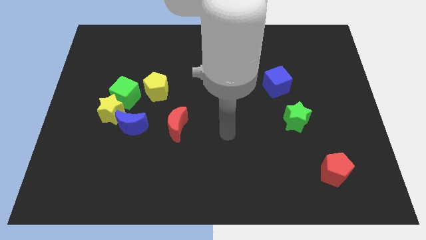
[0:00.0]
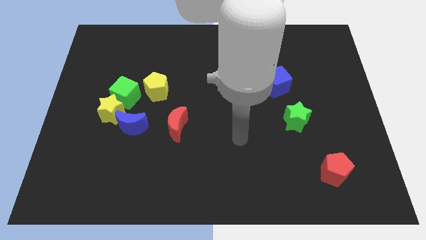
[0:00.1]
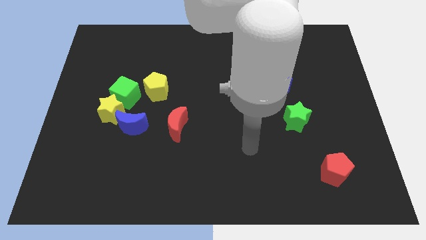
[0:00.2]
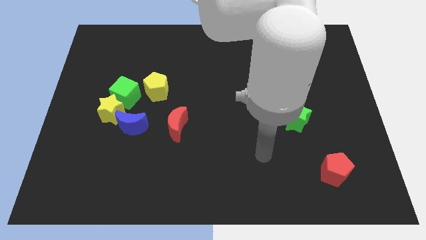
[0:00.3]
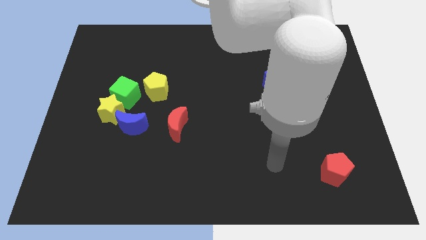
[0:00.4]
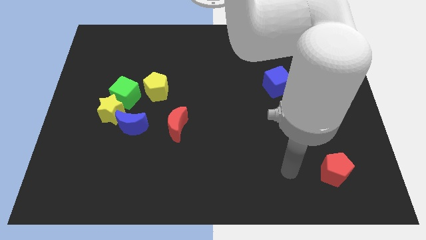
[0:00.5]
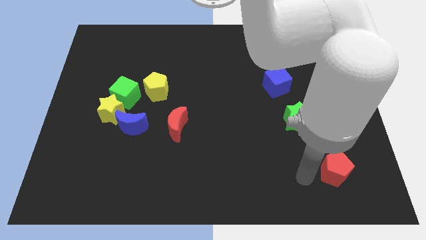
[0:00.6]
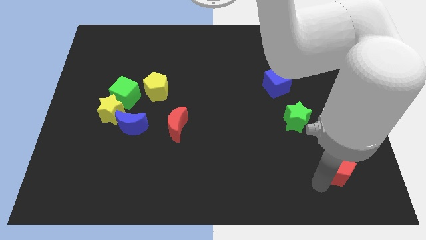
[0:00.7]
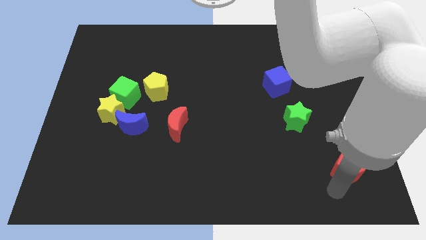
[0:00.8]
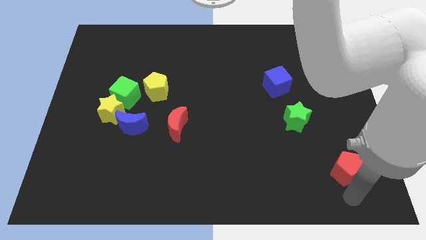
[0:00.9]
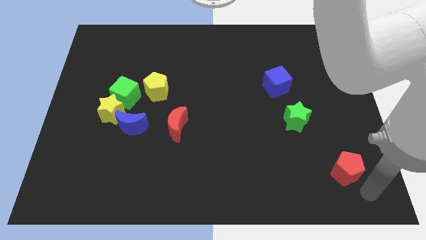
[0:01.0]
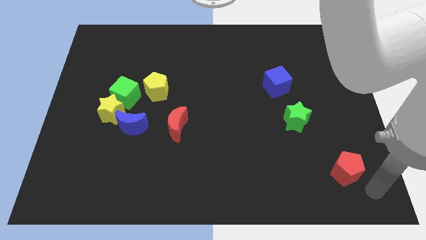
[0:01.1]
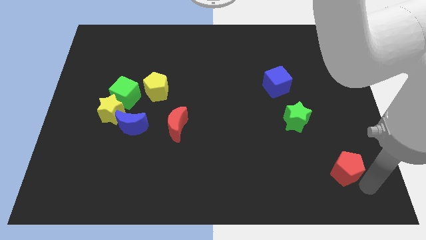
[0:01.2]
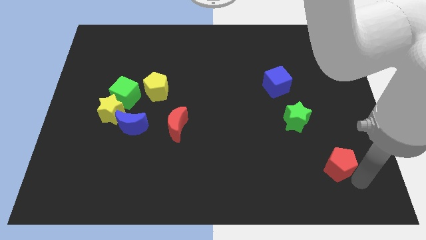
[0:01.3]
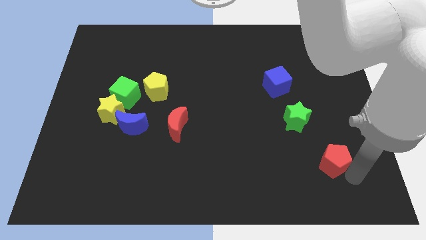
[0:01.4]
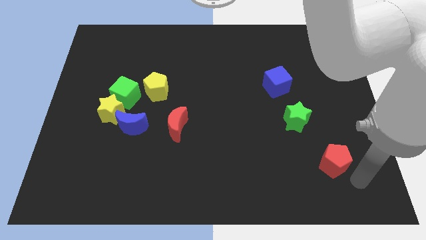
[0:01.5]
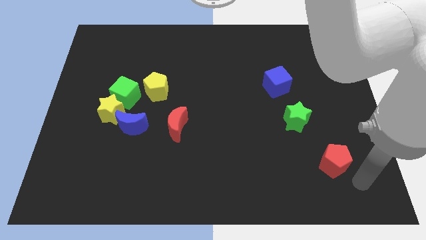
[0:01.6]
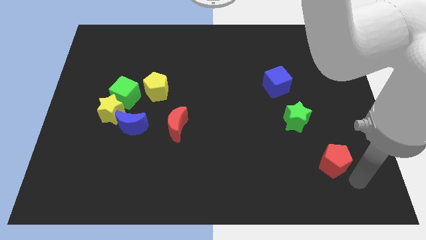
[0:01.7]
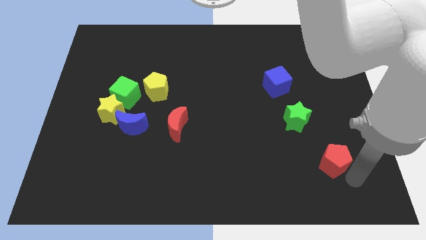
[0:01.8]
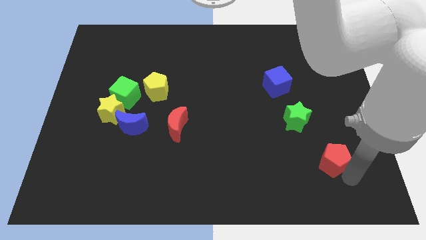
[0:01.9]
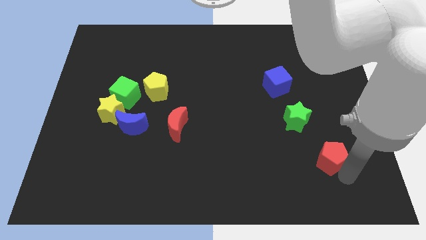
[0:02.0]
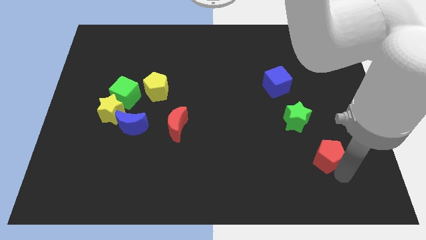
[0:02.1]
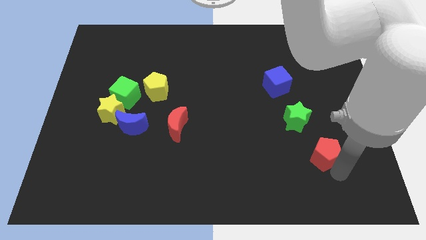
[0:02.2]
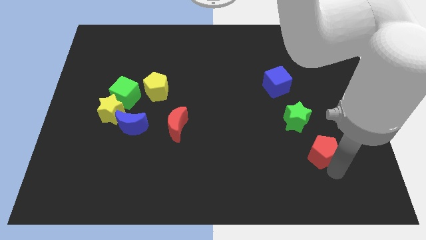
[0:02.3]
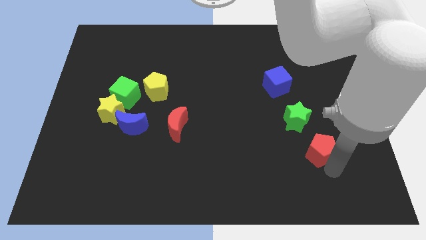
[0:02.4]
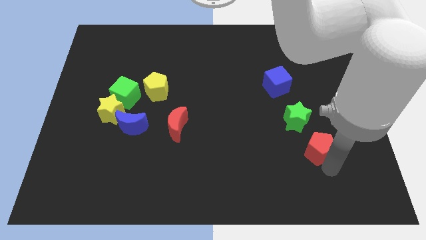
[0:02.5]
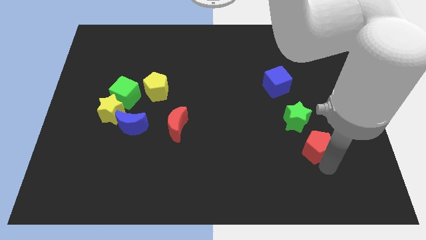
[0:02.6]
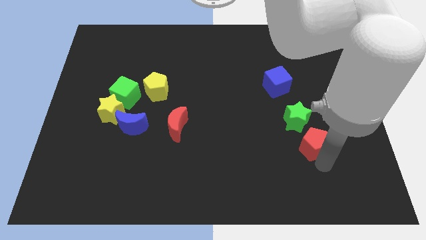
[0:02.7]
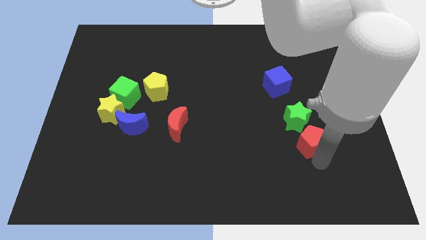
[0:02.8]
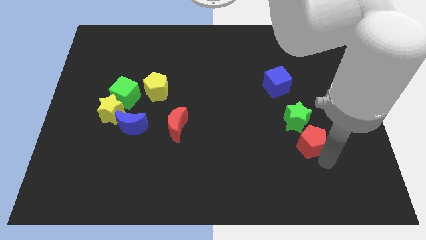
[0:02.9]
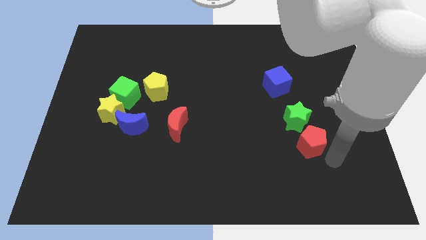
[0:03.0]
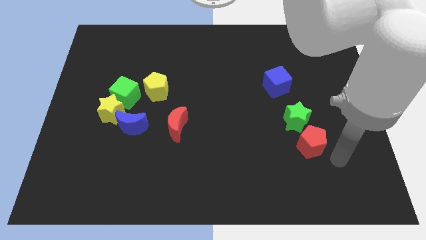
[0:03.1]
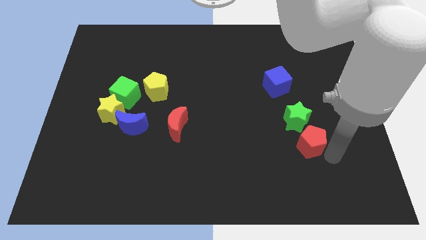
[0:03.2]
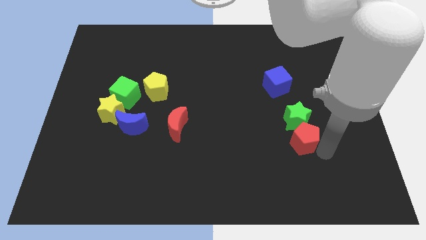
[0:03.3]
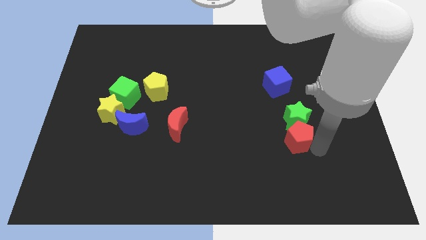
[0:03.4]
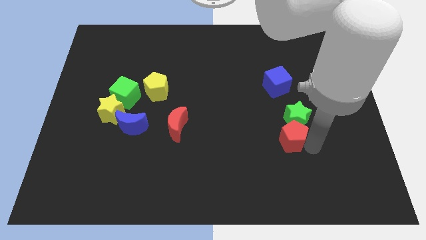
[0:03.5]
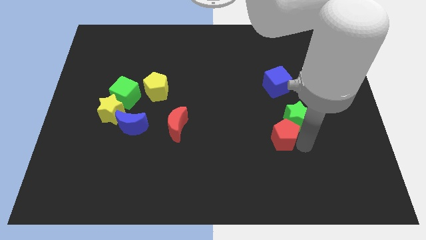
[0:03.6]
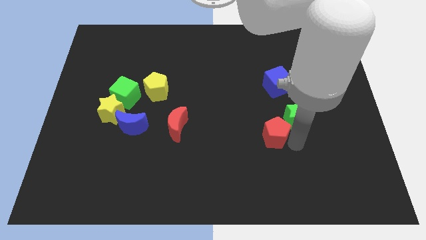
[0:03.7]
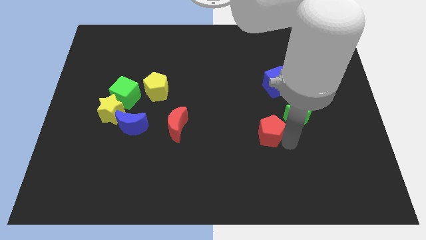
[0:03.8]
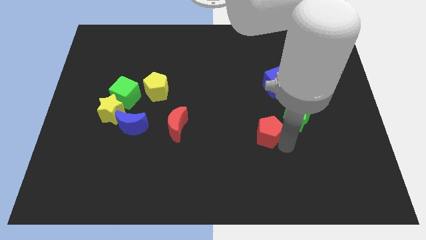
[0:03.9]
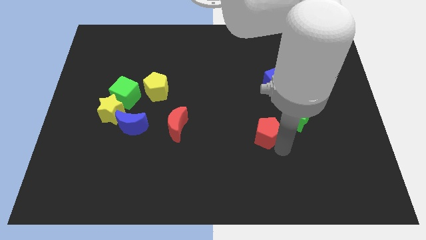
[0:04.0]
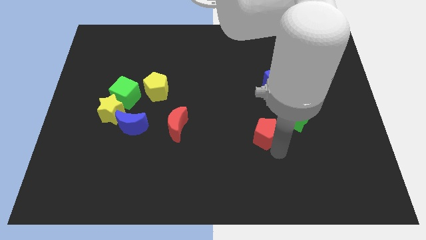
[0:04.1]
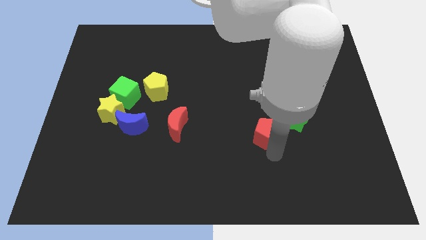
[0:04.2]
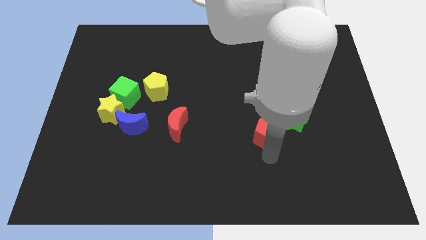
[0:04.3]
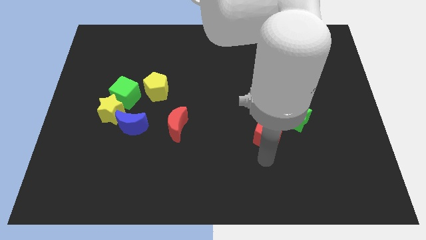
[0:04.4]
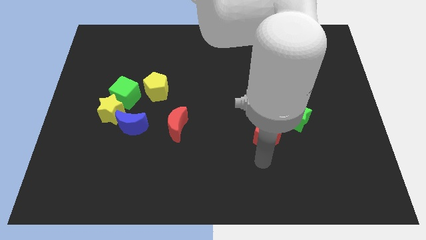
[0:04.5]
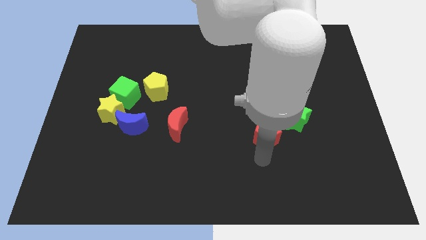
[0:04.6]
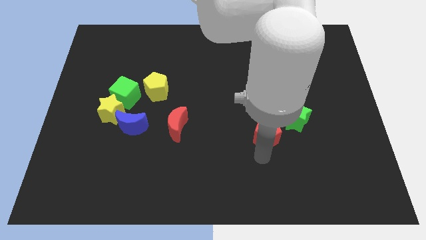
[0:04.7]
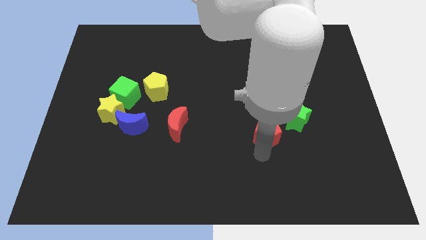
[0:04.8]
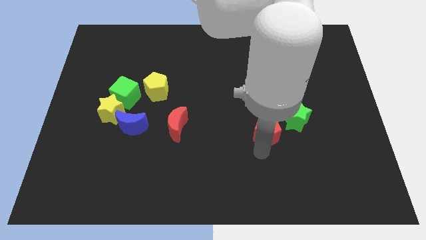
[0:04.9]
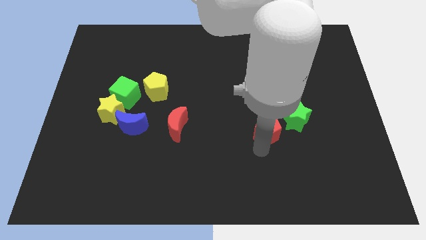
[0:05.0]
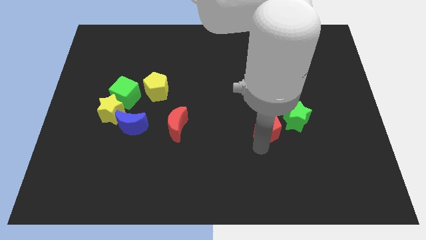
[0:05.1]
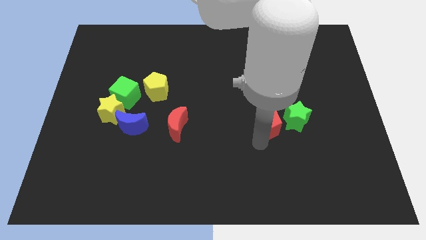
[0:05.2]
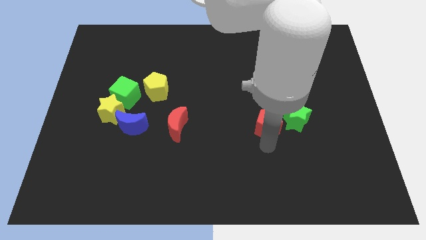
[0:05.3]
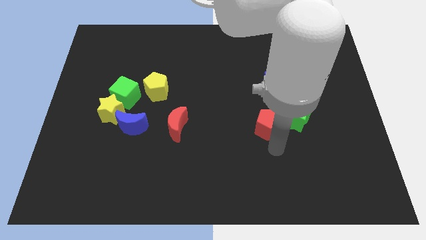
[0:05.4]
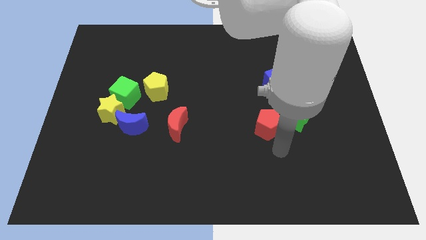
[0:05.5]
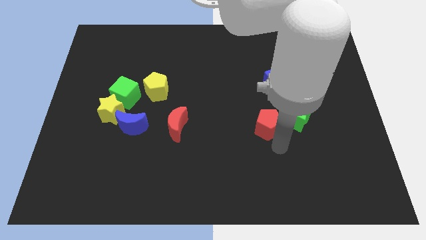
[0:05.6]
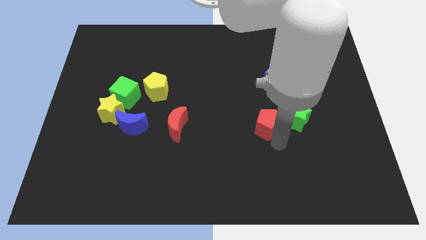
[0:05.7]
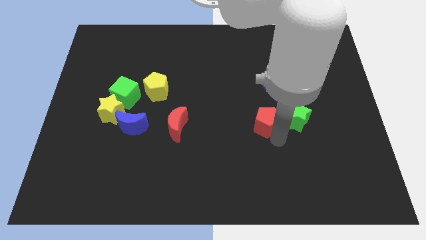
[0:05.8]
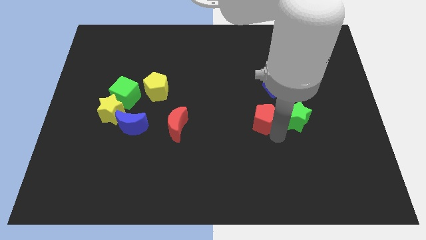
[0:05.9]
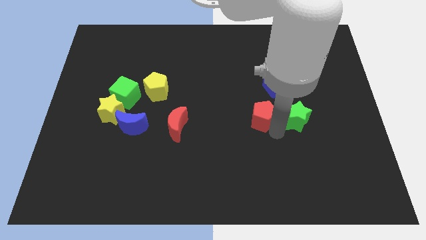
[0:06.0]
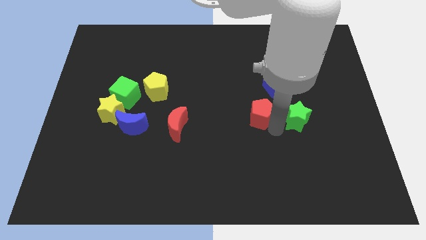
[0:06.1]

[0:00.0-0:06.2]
push the red pentagon up and to the left

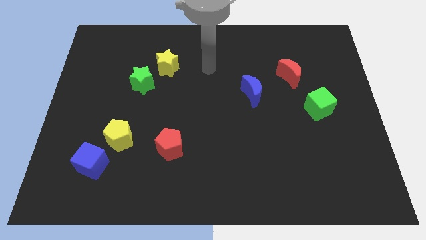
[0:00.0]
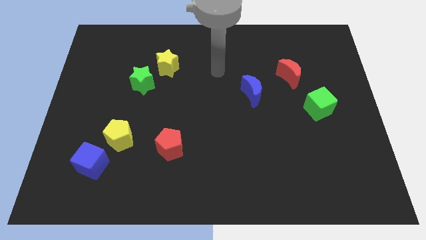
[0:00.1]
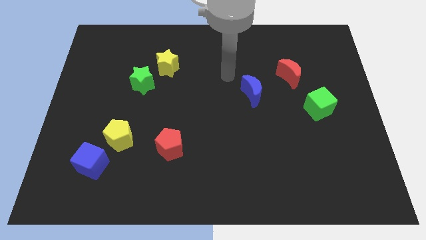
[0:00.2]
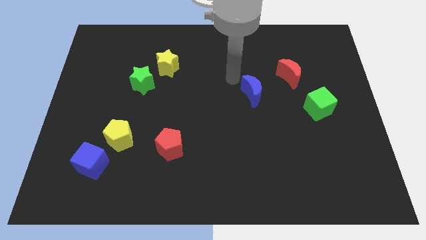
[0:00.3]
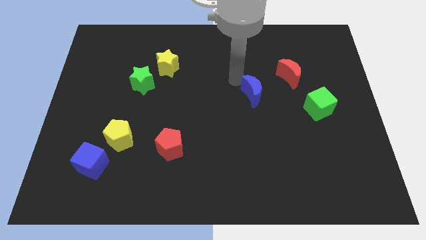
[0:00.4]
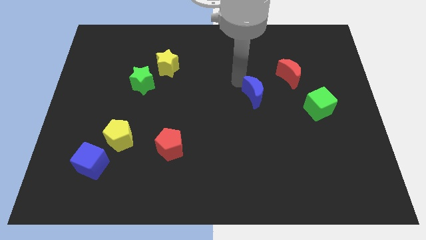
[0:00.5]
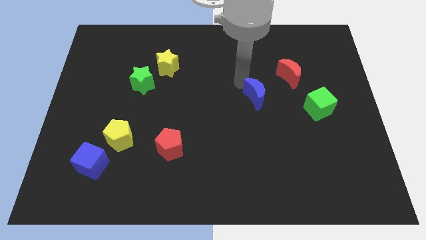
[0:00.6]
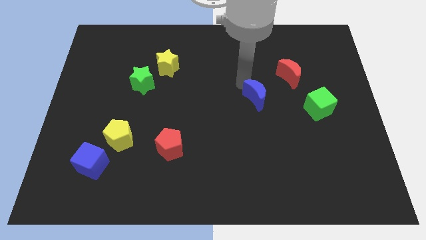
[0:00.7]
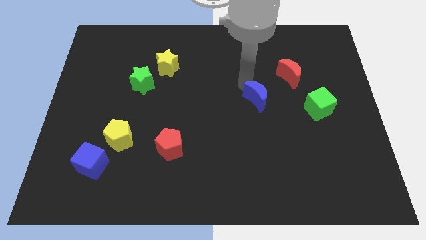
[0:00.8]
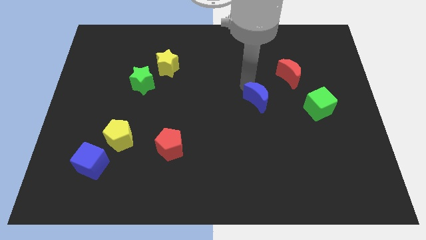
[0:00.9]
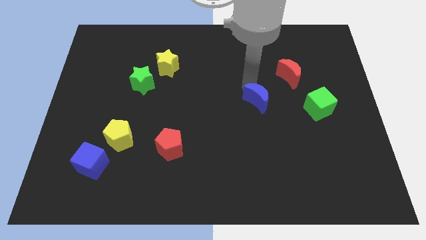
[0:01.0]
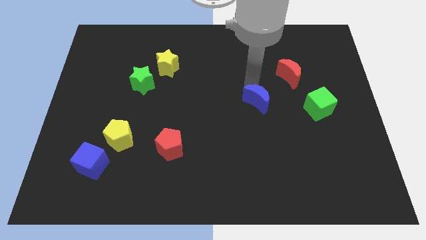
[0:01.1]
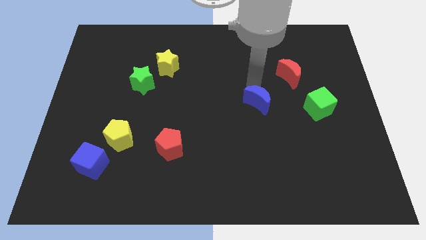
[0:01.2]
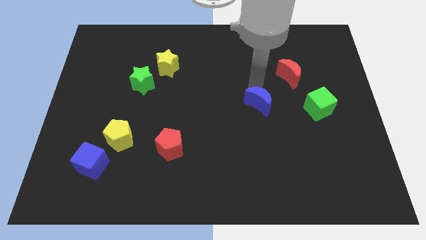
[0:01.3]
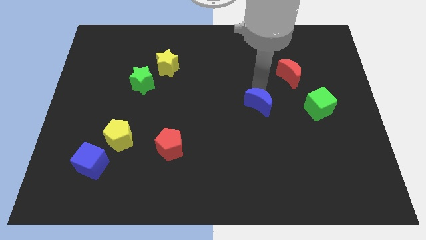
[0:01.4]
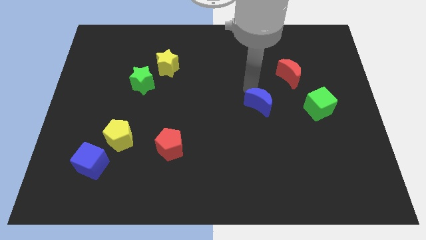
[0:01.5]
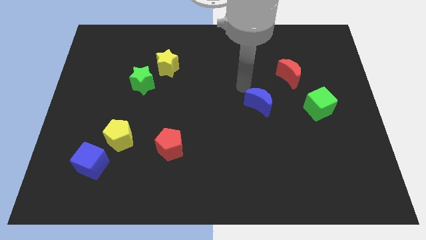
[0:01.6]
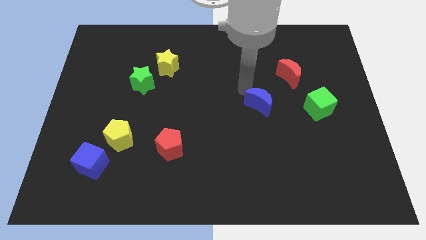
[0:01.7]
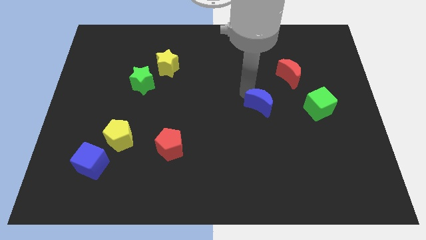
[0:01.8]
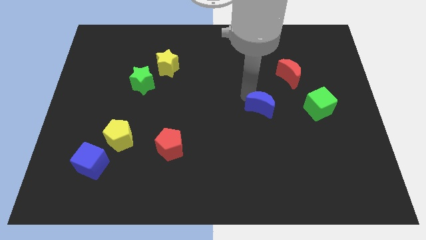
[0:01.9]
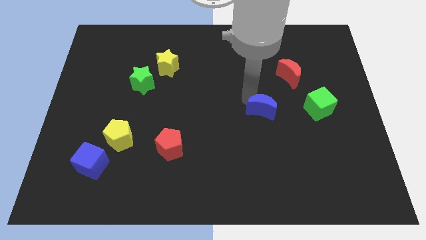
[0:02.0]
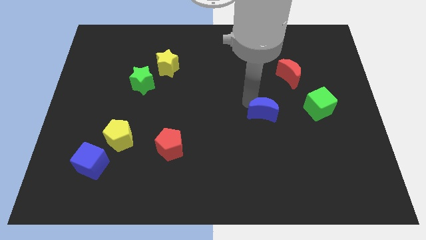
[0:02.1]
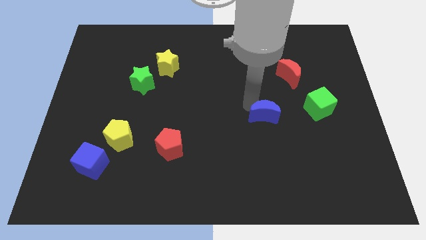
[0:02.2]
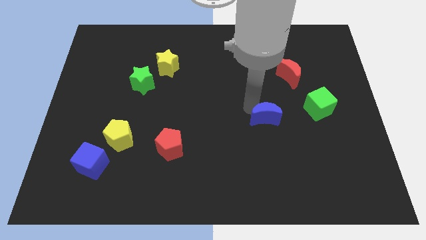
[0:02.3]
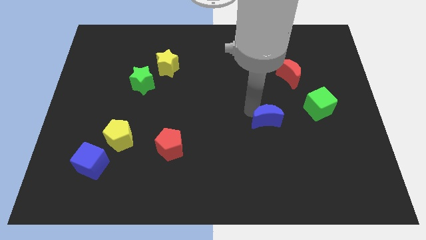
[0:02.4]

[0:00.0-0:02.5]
move the blue moon down and to the right somewhat
